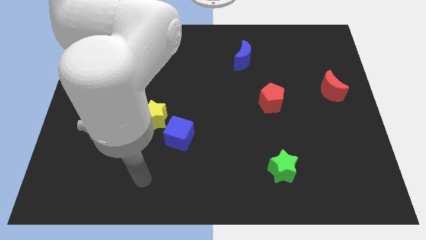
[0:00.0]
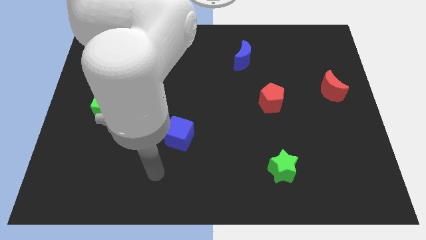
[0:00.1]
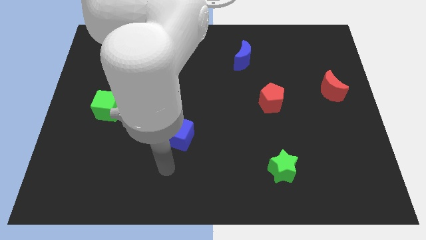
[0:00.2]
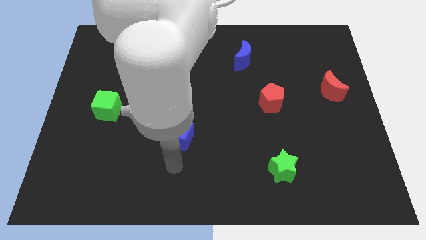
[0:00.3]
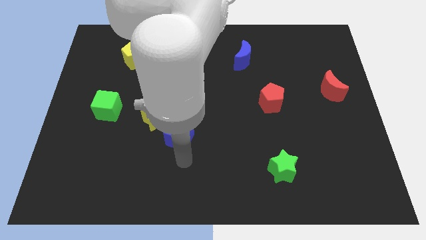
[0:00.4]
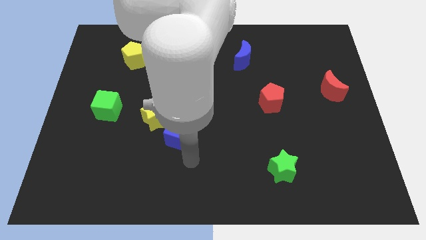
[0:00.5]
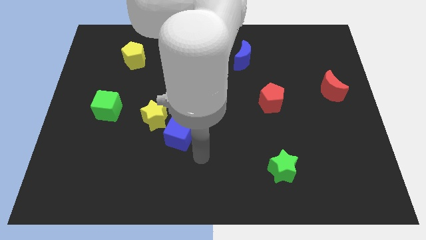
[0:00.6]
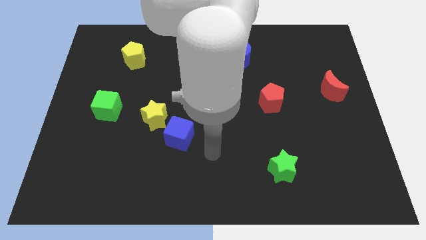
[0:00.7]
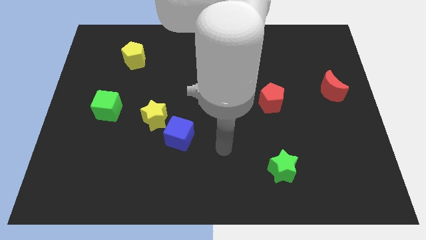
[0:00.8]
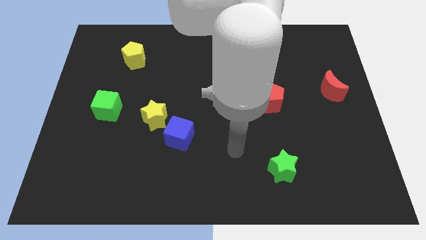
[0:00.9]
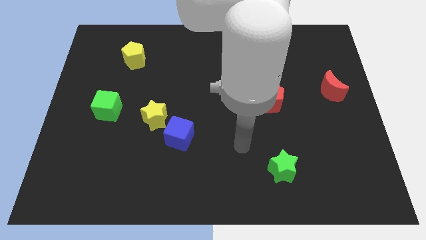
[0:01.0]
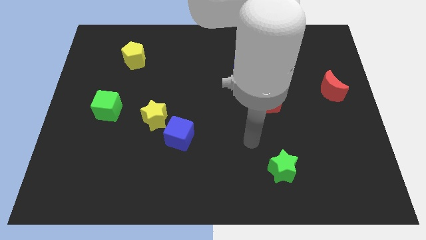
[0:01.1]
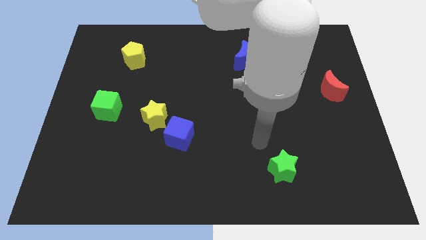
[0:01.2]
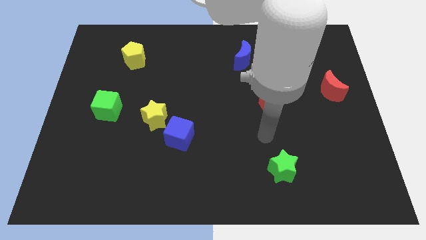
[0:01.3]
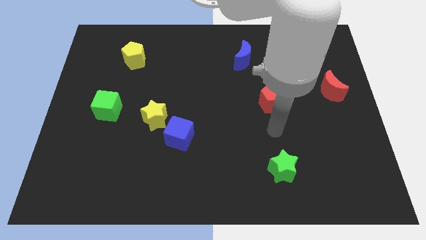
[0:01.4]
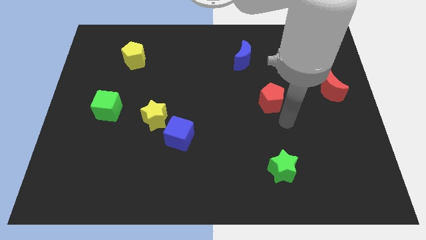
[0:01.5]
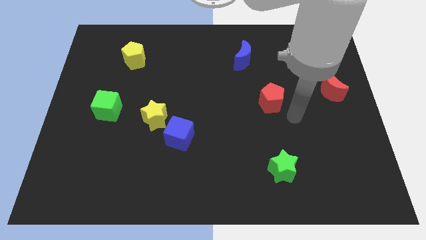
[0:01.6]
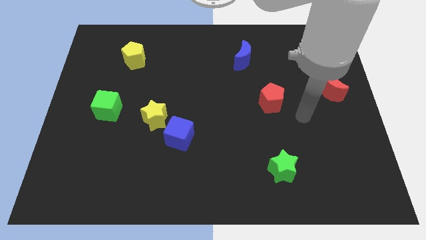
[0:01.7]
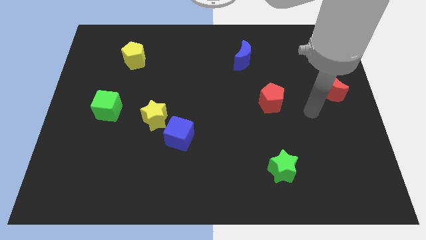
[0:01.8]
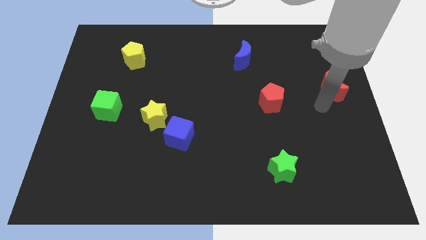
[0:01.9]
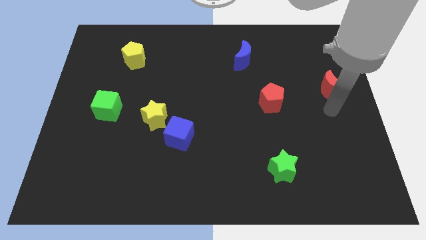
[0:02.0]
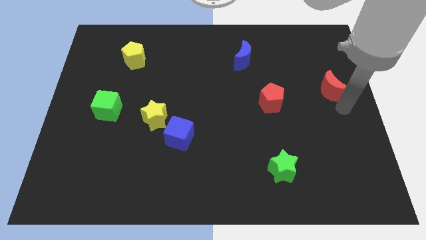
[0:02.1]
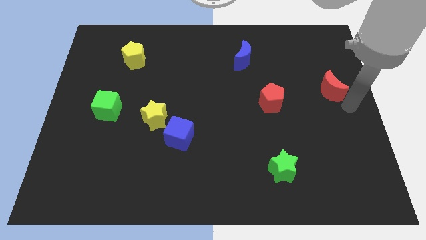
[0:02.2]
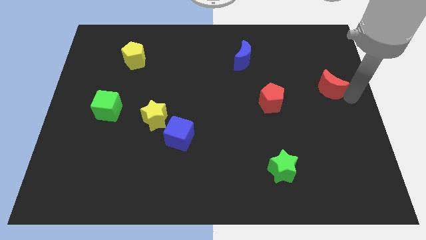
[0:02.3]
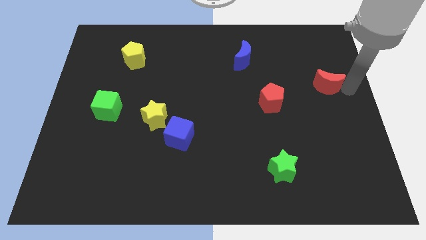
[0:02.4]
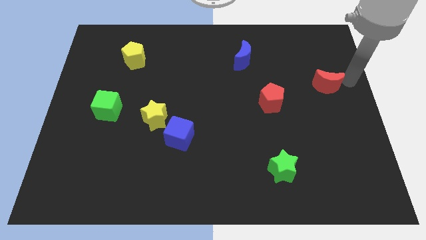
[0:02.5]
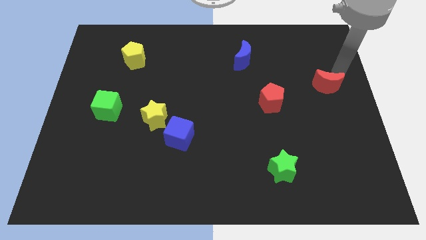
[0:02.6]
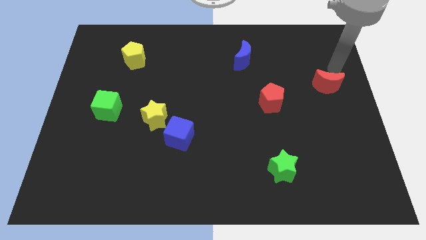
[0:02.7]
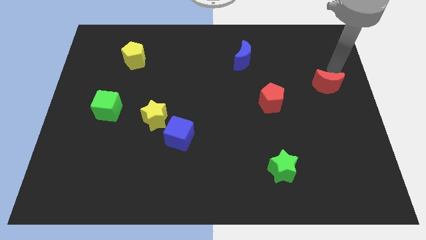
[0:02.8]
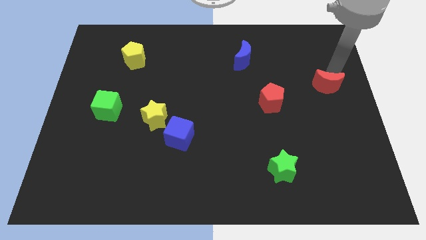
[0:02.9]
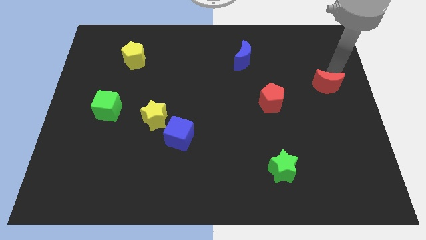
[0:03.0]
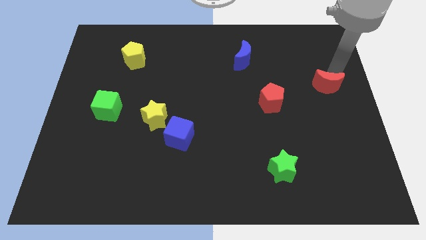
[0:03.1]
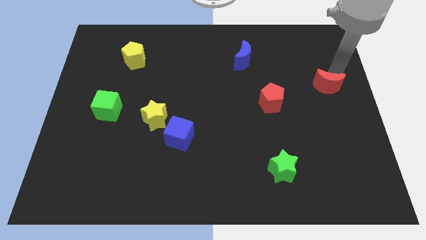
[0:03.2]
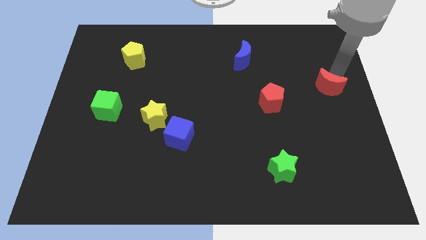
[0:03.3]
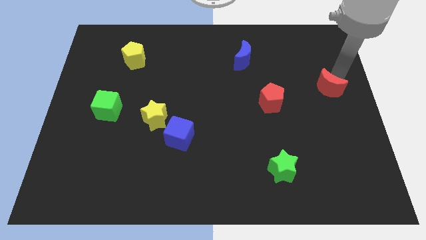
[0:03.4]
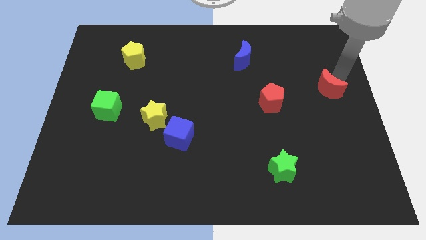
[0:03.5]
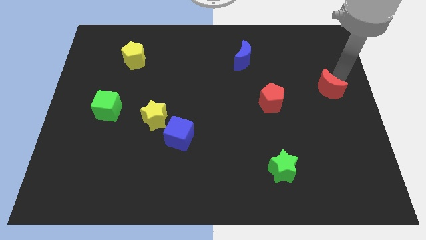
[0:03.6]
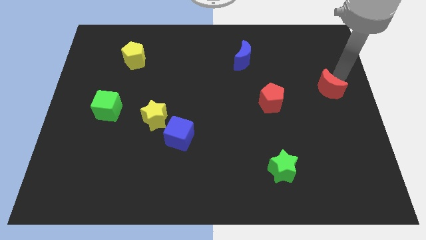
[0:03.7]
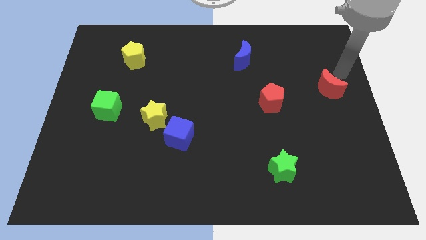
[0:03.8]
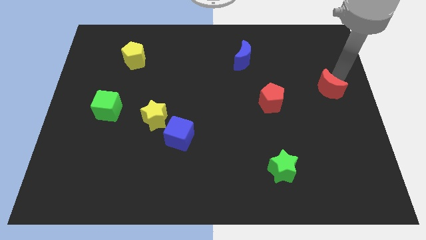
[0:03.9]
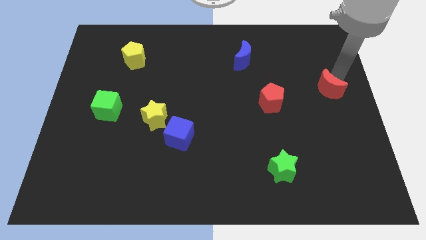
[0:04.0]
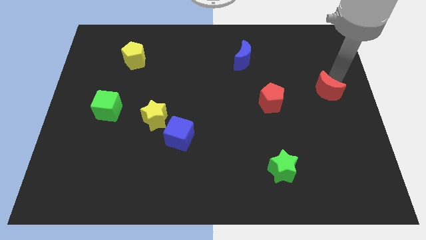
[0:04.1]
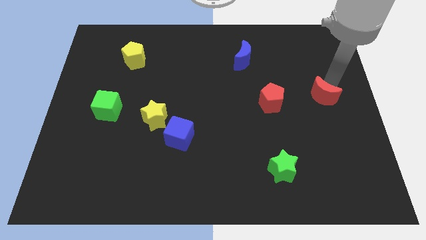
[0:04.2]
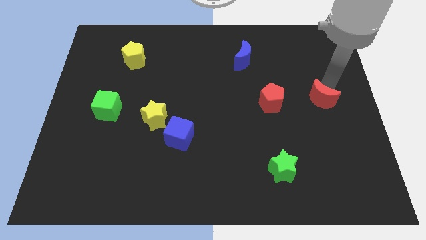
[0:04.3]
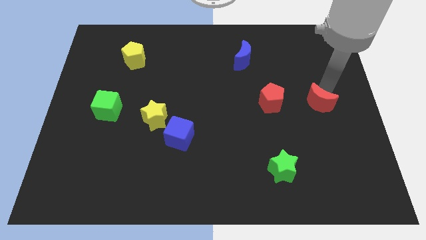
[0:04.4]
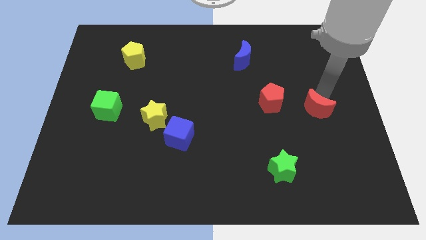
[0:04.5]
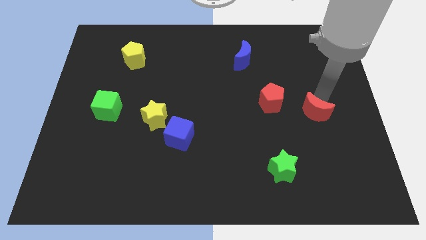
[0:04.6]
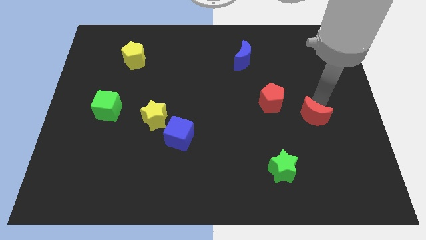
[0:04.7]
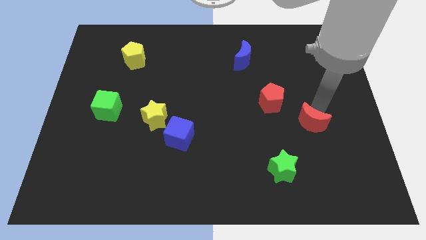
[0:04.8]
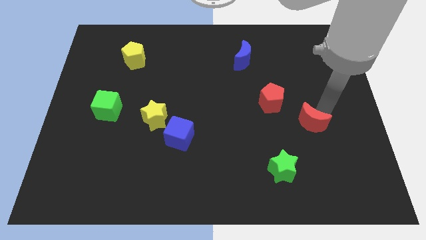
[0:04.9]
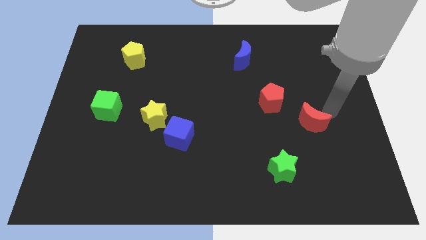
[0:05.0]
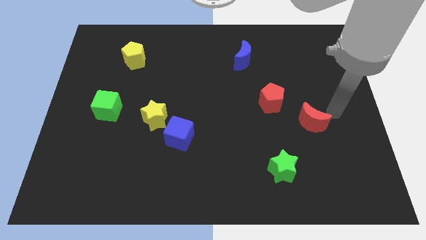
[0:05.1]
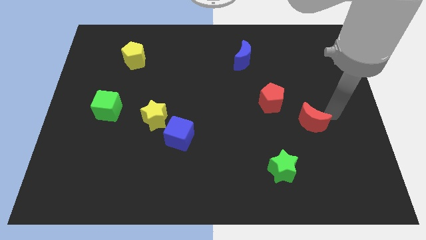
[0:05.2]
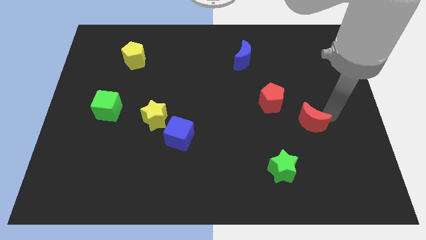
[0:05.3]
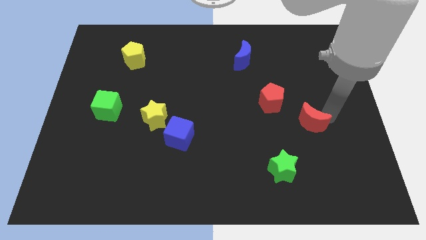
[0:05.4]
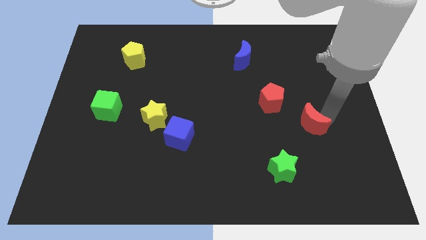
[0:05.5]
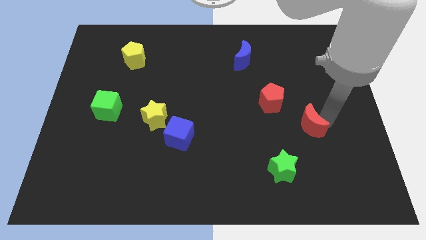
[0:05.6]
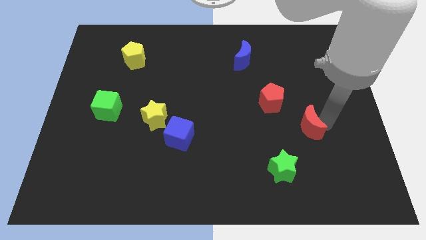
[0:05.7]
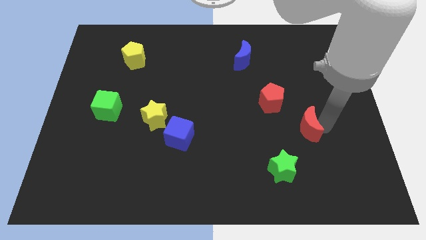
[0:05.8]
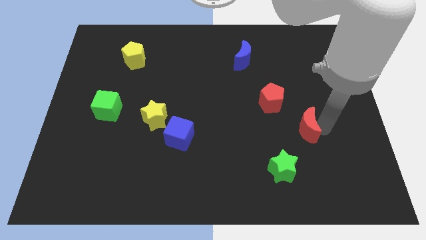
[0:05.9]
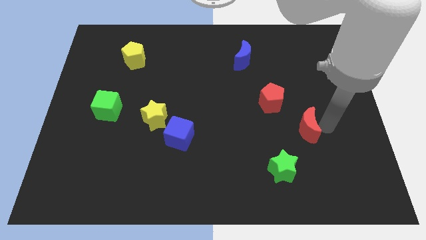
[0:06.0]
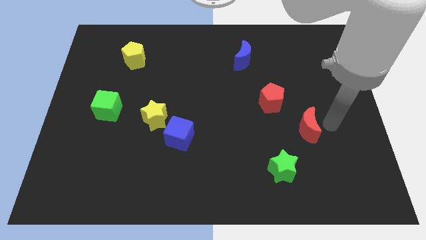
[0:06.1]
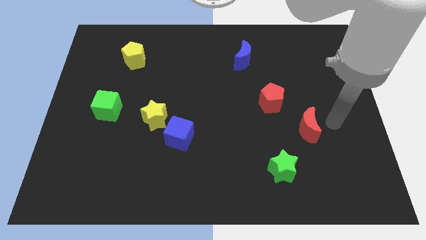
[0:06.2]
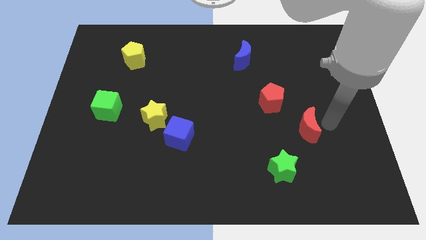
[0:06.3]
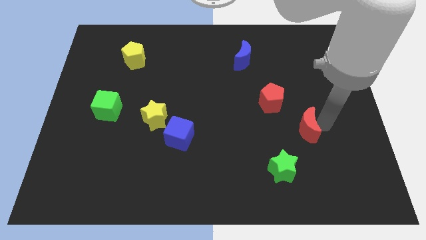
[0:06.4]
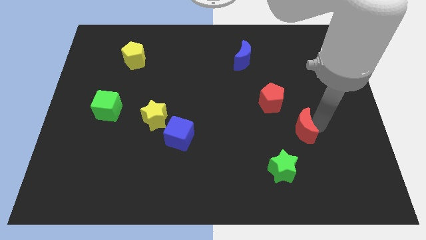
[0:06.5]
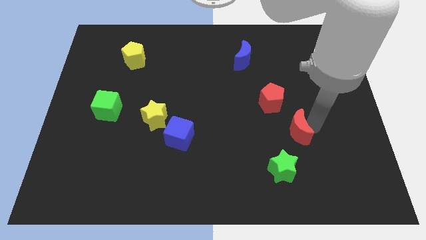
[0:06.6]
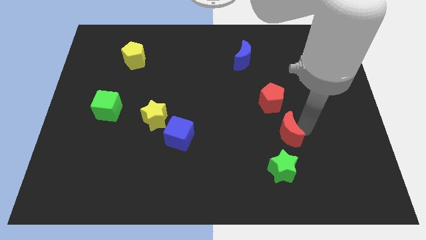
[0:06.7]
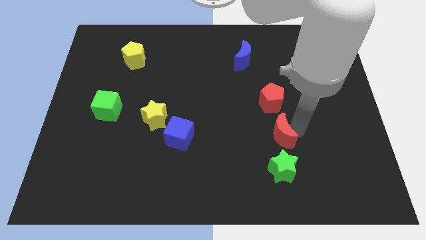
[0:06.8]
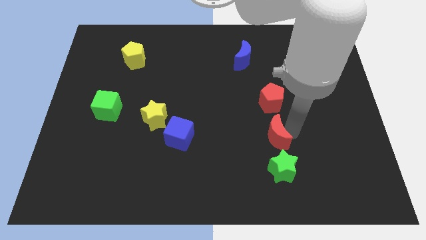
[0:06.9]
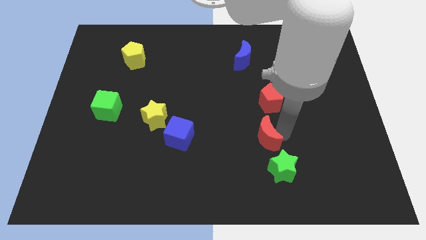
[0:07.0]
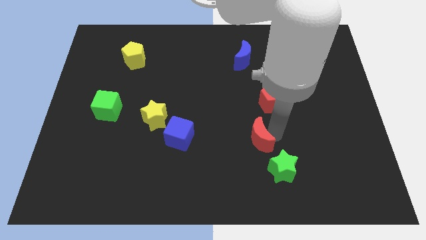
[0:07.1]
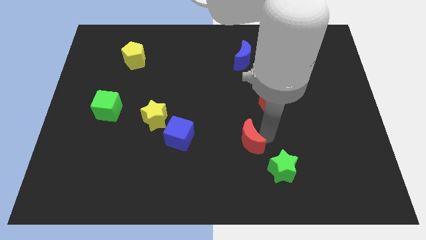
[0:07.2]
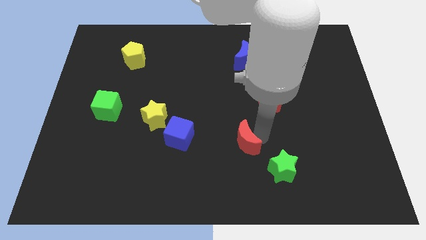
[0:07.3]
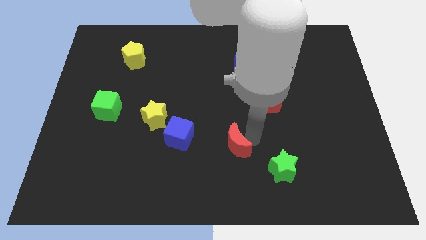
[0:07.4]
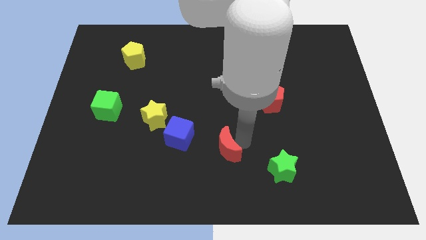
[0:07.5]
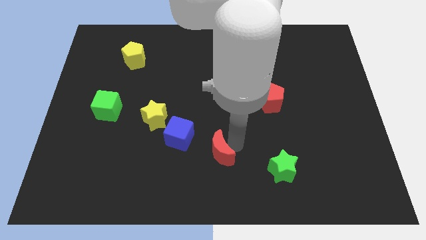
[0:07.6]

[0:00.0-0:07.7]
push the red moon to the bottom right of the blue cube

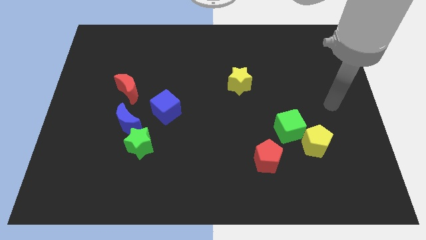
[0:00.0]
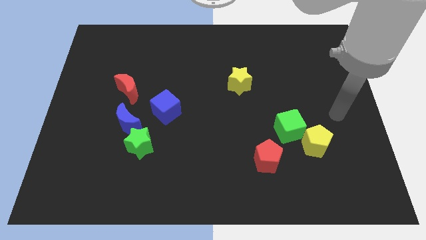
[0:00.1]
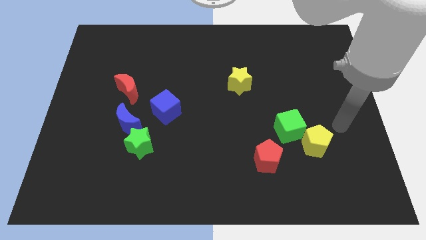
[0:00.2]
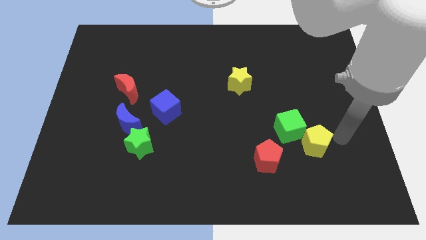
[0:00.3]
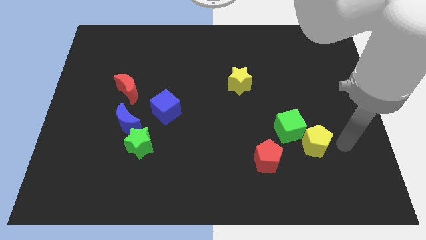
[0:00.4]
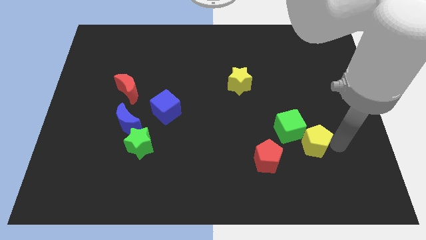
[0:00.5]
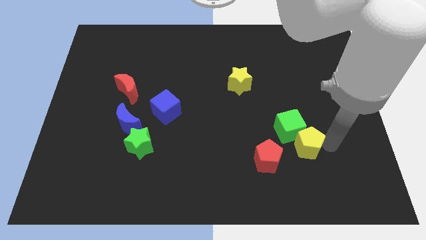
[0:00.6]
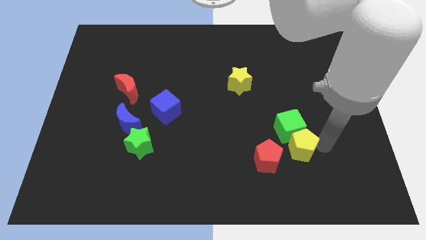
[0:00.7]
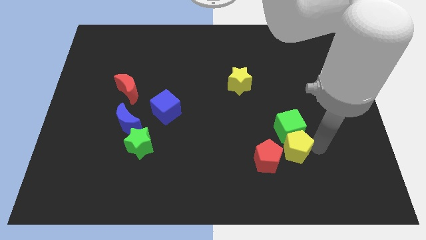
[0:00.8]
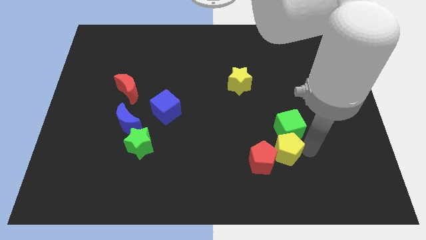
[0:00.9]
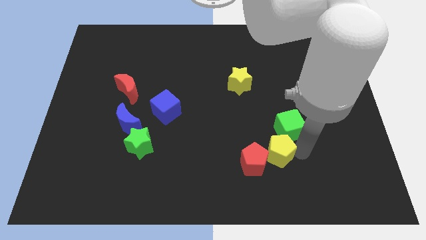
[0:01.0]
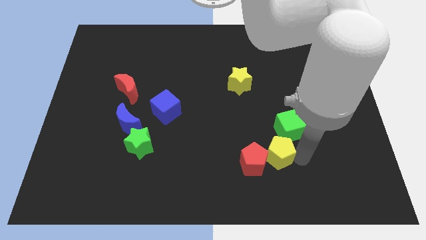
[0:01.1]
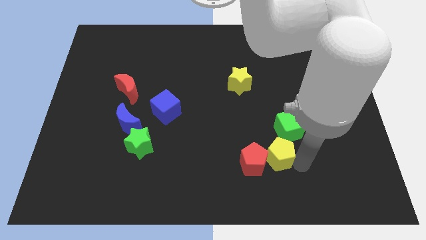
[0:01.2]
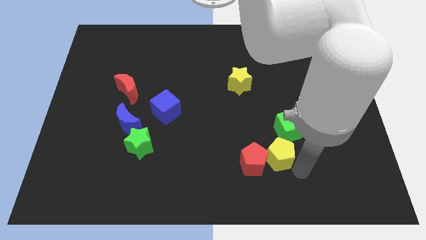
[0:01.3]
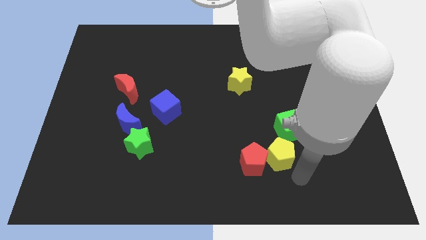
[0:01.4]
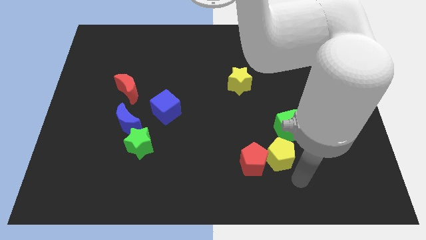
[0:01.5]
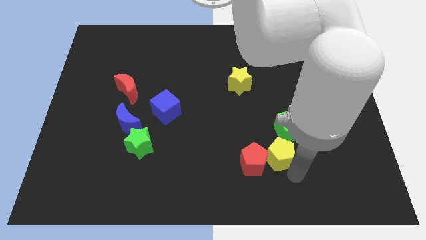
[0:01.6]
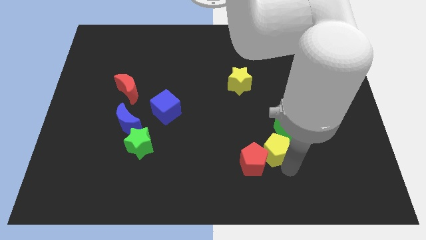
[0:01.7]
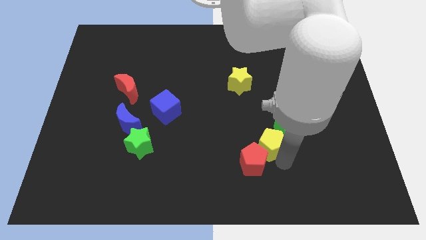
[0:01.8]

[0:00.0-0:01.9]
move the yellow pentagon to the left side of the green cube
